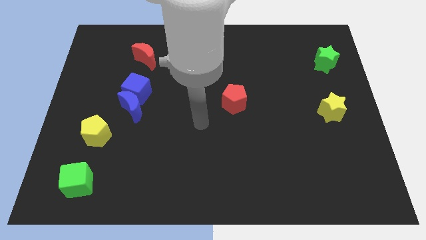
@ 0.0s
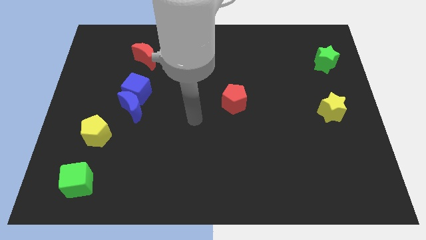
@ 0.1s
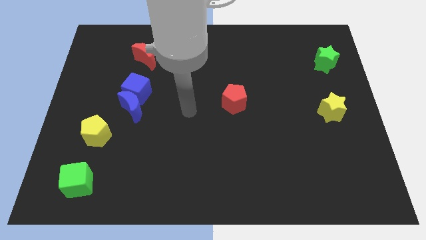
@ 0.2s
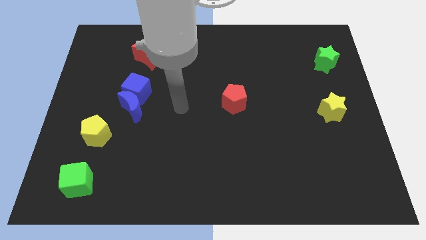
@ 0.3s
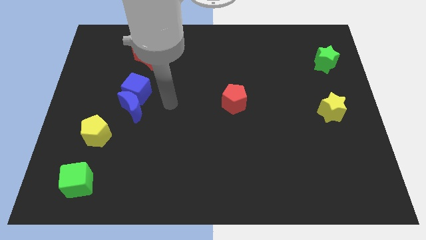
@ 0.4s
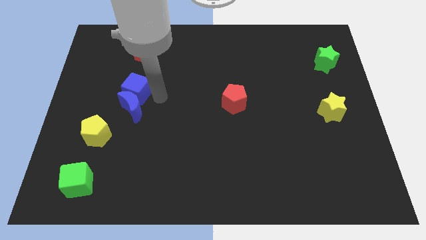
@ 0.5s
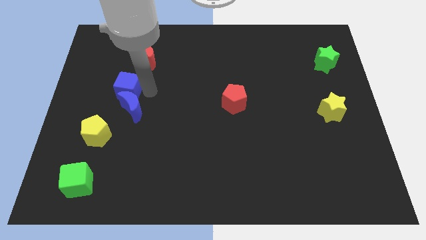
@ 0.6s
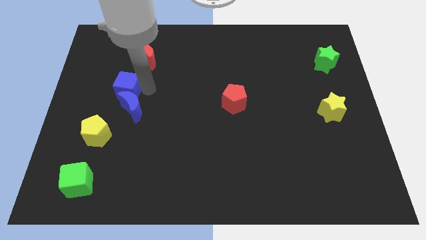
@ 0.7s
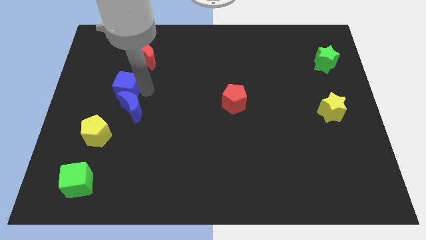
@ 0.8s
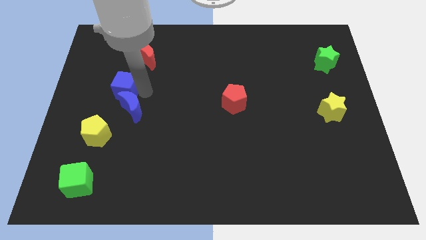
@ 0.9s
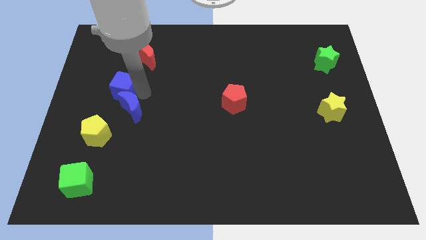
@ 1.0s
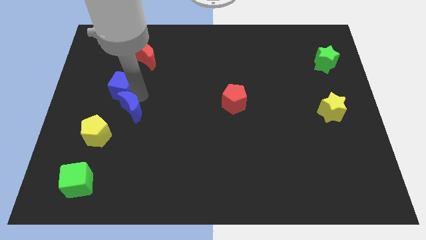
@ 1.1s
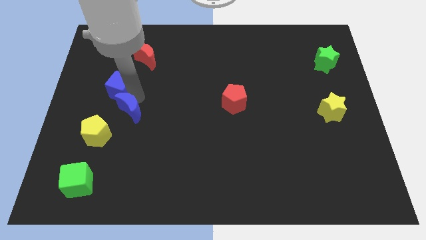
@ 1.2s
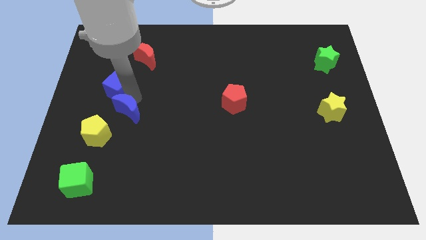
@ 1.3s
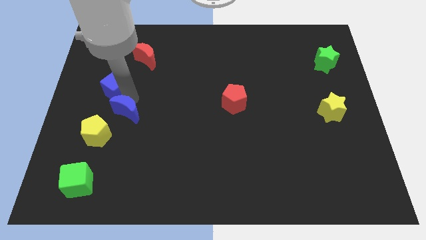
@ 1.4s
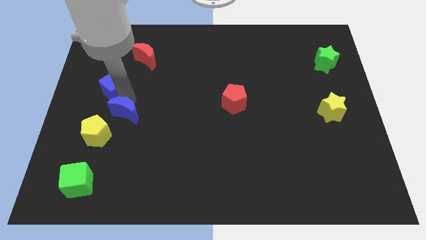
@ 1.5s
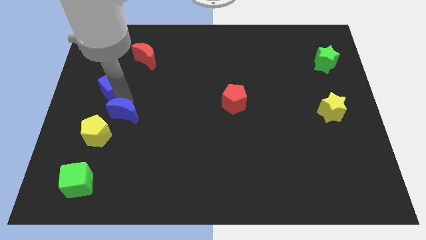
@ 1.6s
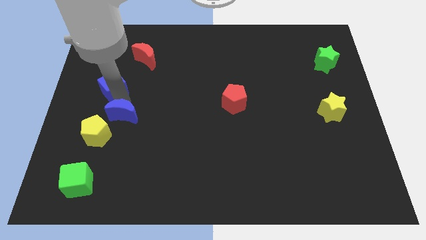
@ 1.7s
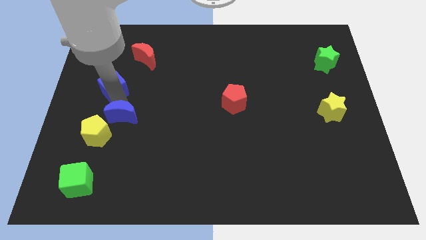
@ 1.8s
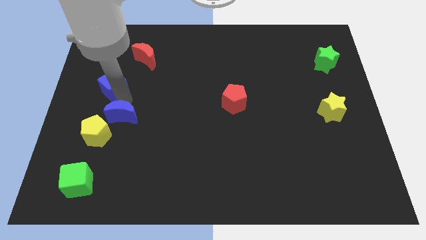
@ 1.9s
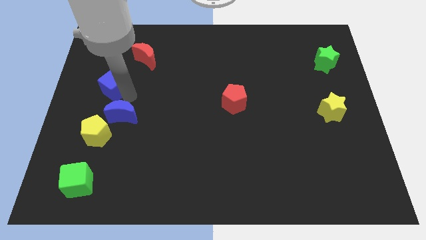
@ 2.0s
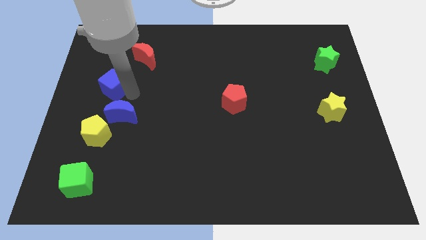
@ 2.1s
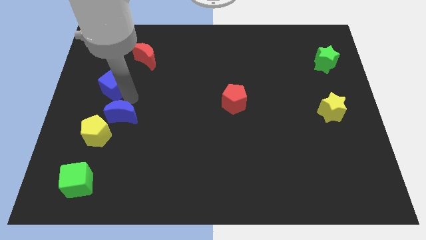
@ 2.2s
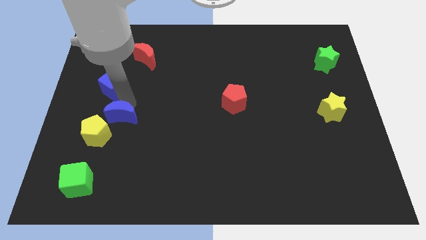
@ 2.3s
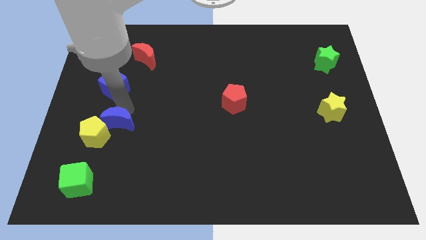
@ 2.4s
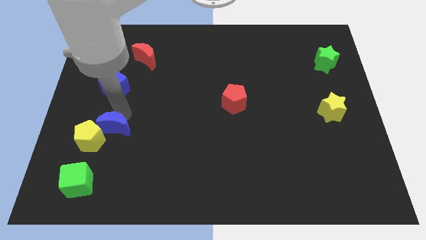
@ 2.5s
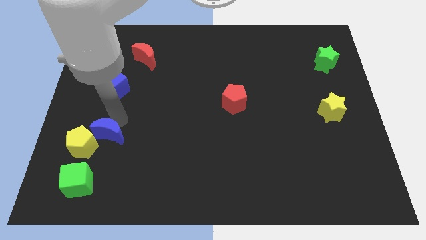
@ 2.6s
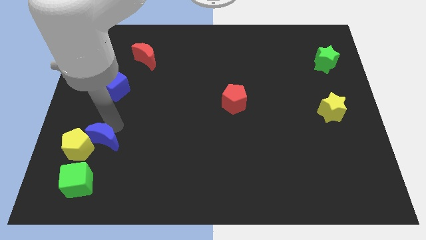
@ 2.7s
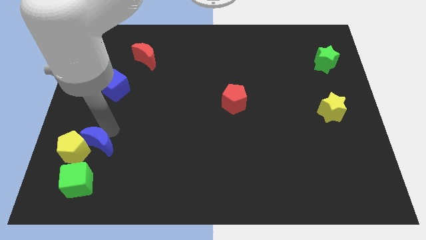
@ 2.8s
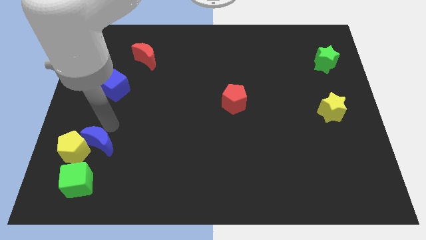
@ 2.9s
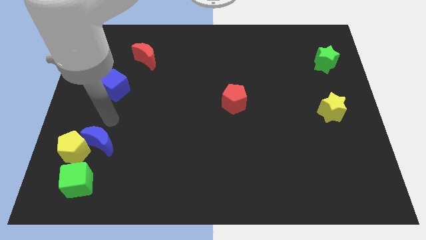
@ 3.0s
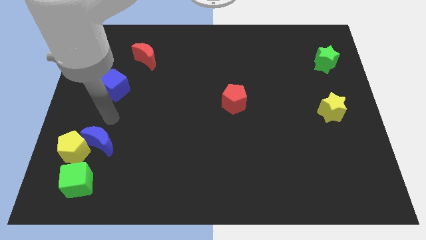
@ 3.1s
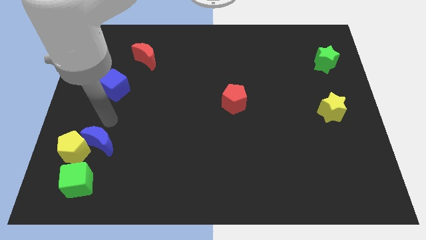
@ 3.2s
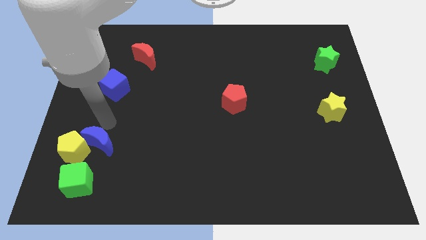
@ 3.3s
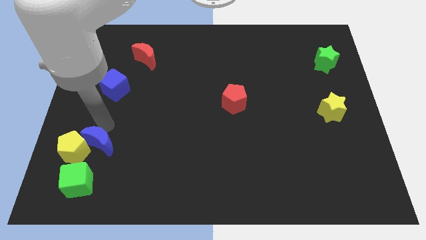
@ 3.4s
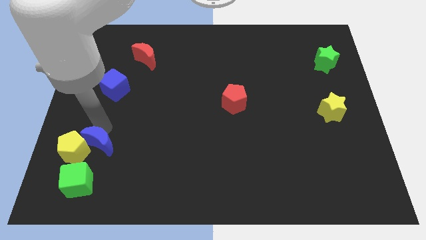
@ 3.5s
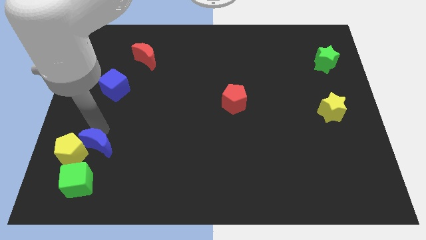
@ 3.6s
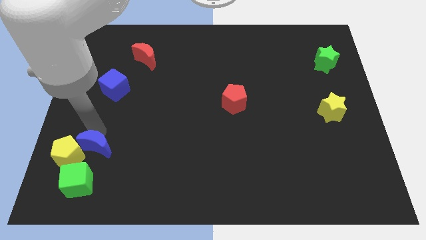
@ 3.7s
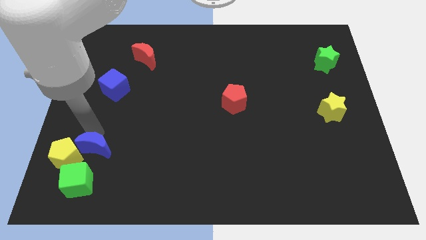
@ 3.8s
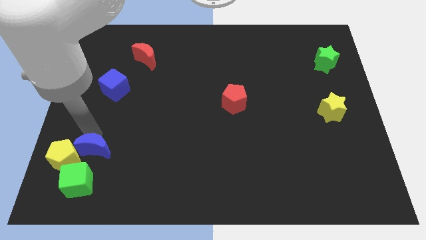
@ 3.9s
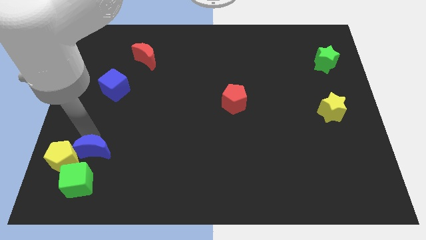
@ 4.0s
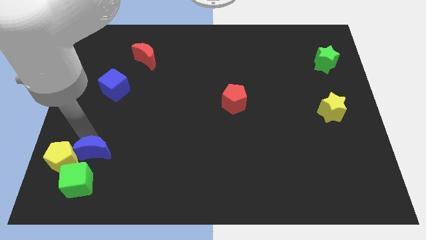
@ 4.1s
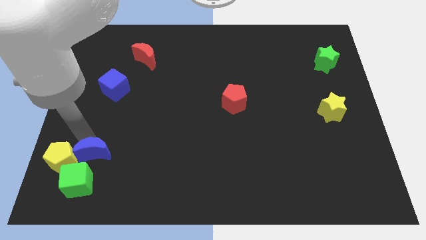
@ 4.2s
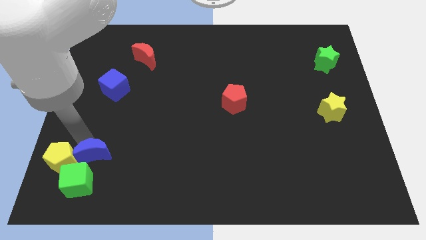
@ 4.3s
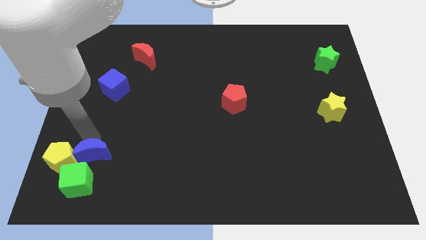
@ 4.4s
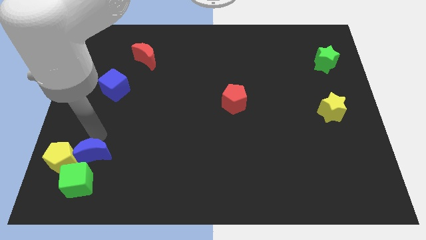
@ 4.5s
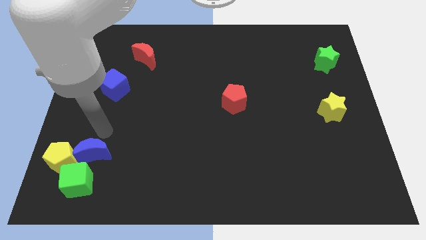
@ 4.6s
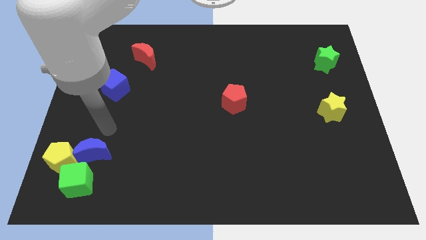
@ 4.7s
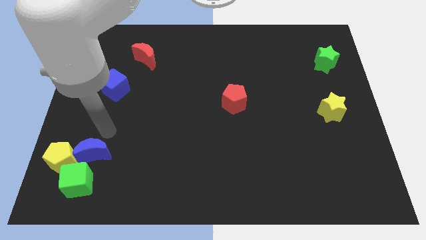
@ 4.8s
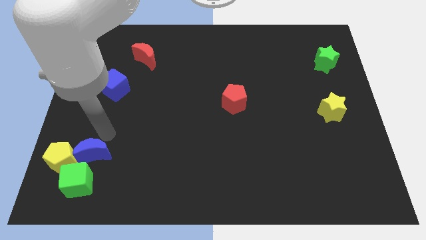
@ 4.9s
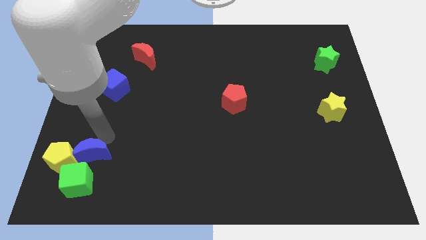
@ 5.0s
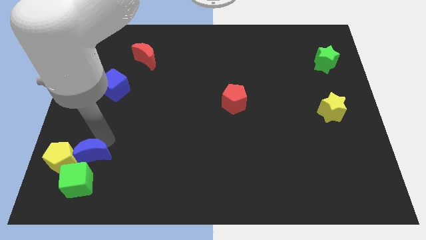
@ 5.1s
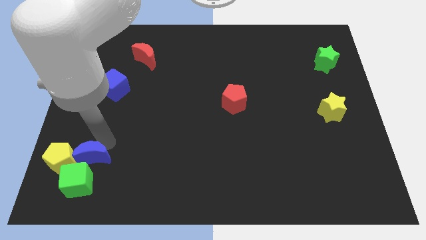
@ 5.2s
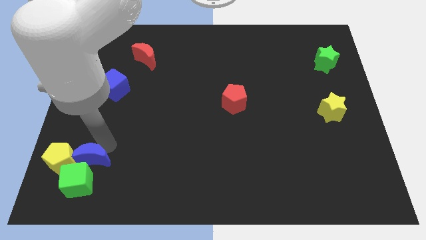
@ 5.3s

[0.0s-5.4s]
push the blue moon towards the green cube

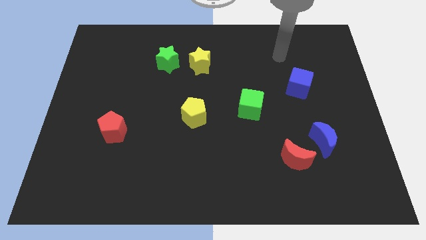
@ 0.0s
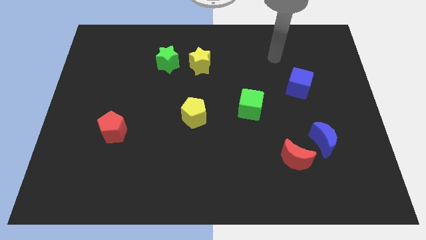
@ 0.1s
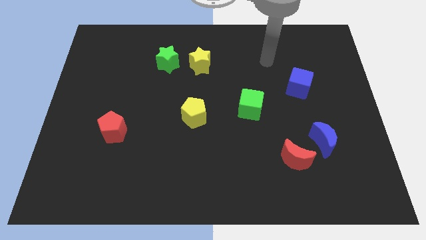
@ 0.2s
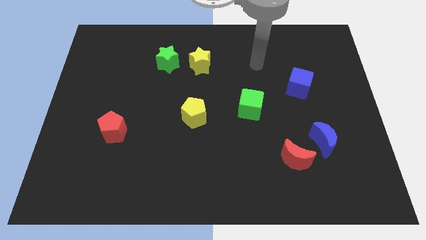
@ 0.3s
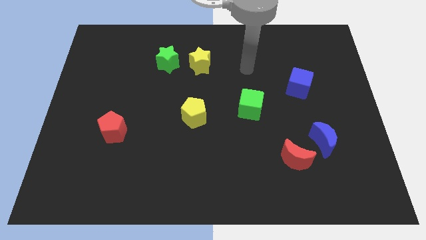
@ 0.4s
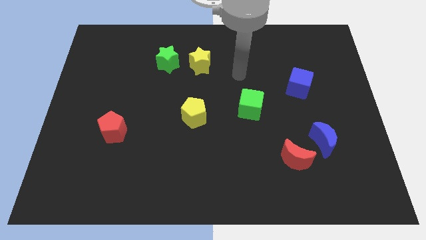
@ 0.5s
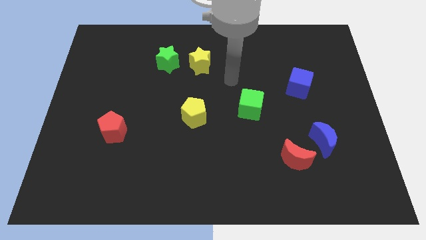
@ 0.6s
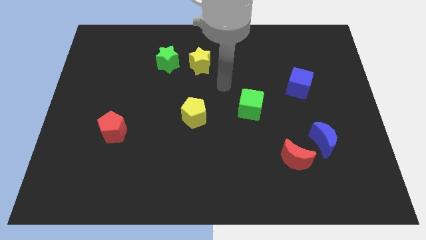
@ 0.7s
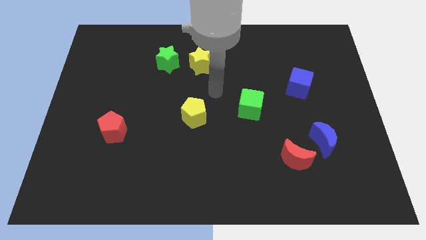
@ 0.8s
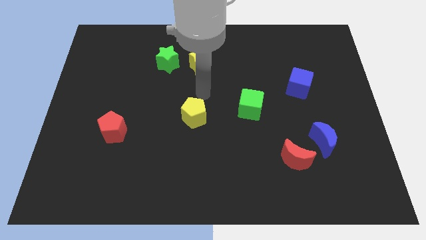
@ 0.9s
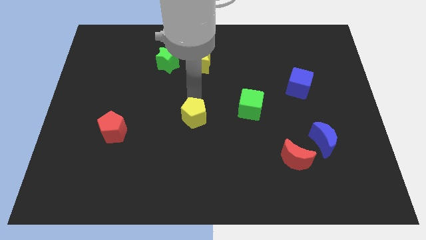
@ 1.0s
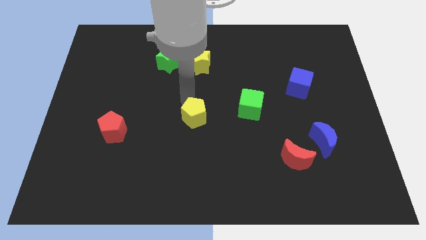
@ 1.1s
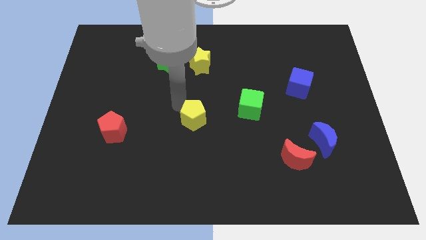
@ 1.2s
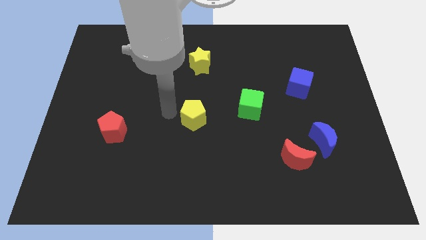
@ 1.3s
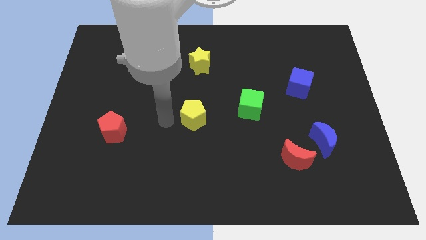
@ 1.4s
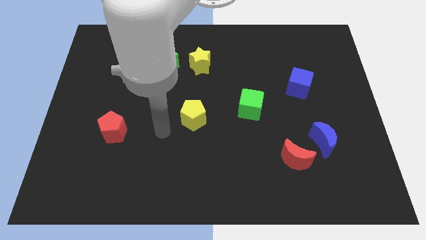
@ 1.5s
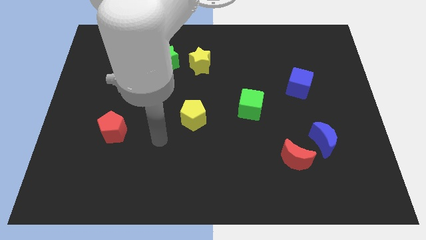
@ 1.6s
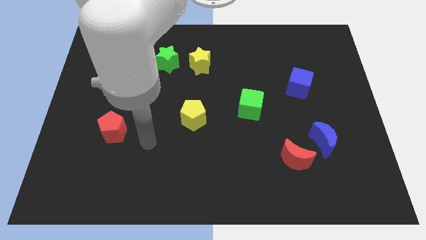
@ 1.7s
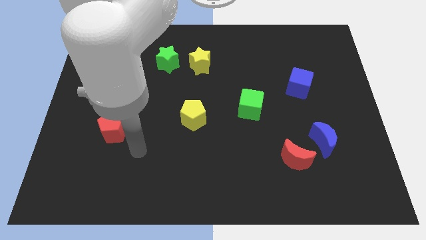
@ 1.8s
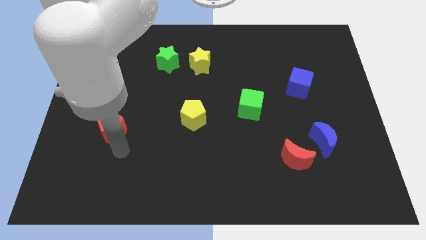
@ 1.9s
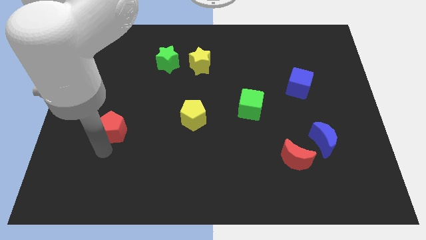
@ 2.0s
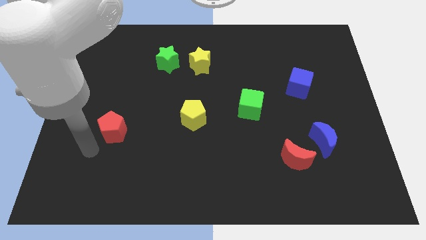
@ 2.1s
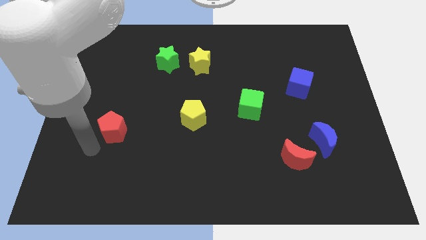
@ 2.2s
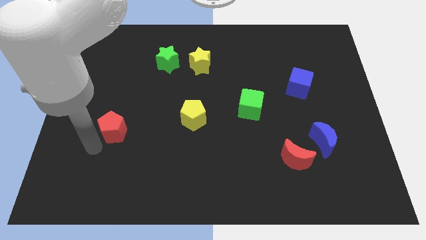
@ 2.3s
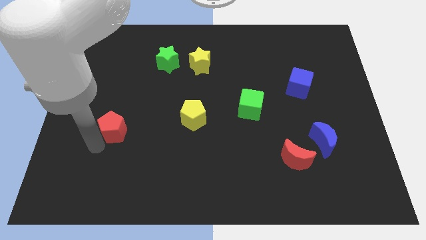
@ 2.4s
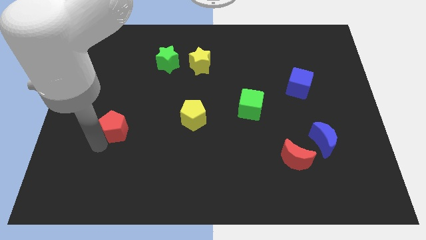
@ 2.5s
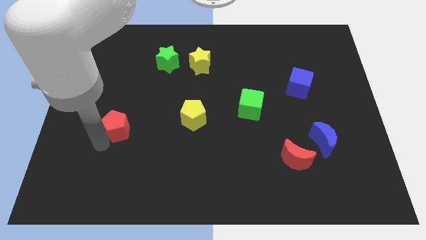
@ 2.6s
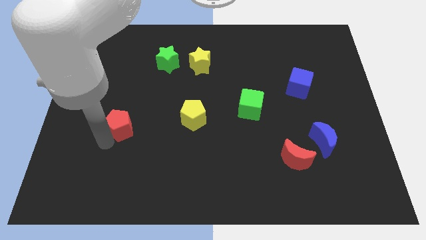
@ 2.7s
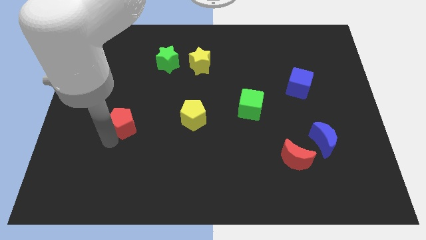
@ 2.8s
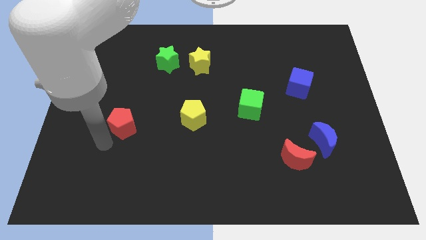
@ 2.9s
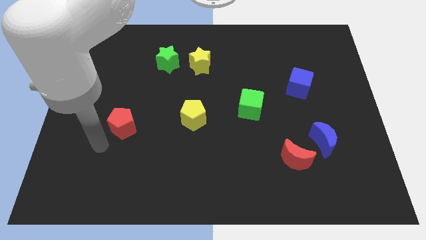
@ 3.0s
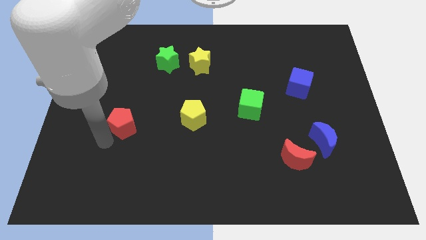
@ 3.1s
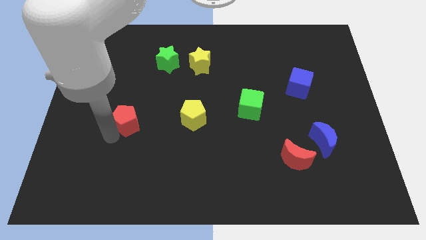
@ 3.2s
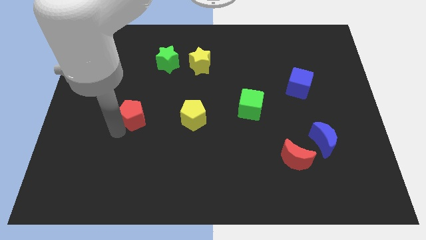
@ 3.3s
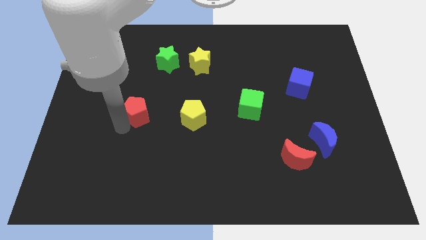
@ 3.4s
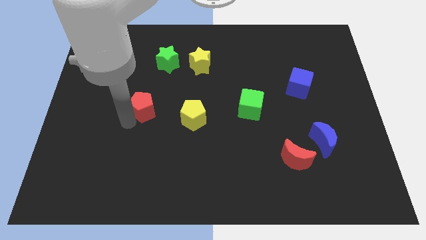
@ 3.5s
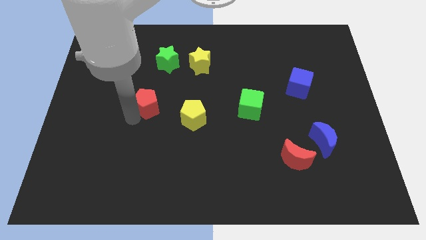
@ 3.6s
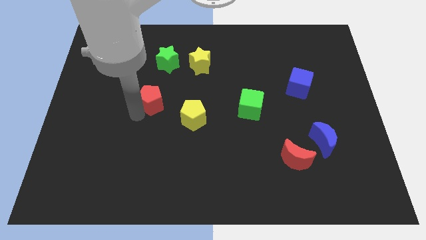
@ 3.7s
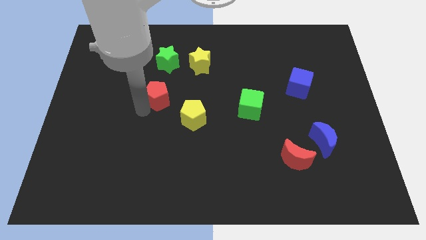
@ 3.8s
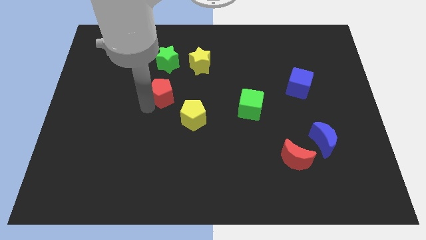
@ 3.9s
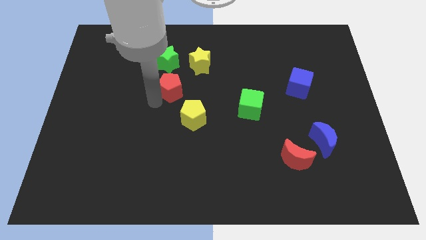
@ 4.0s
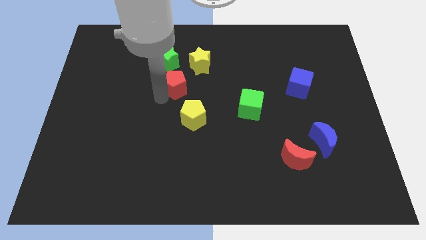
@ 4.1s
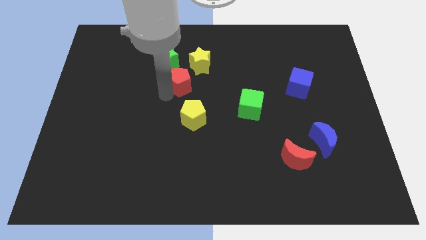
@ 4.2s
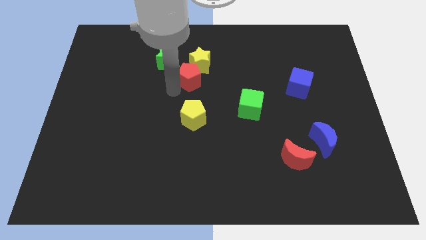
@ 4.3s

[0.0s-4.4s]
put the red pentagon next to the yellow star
